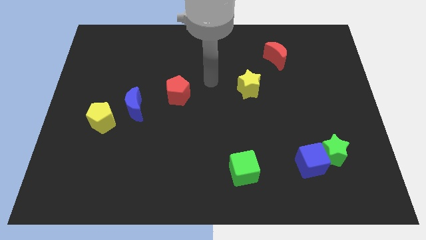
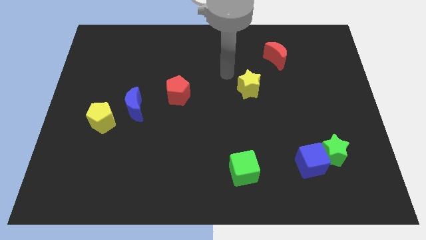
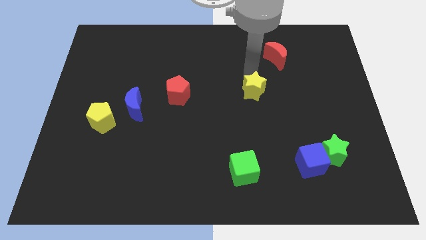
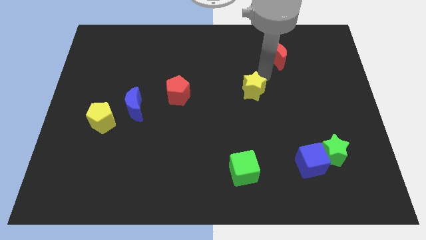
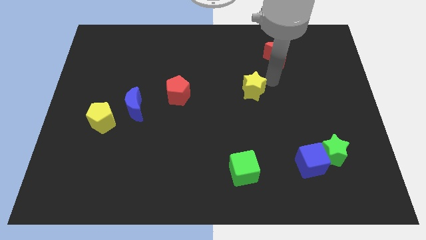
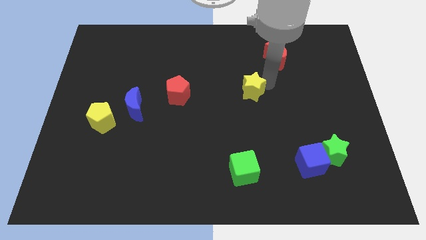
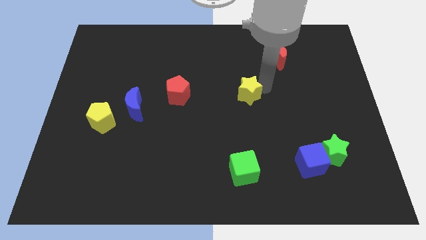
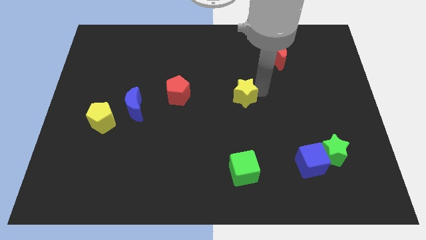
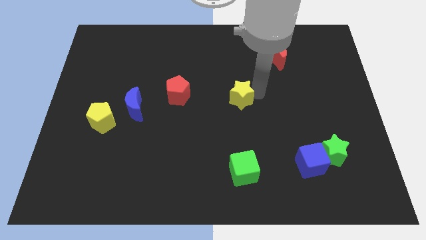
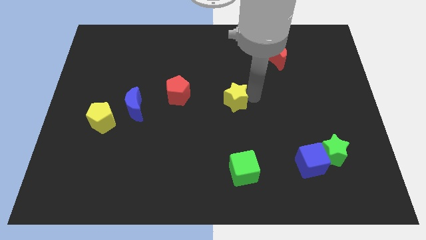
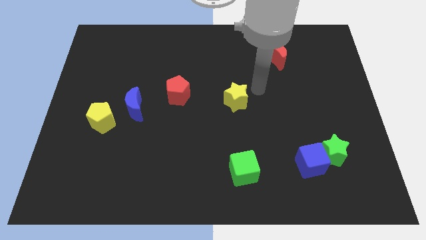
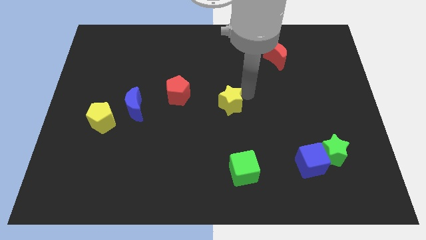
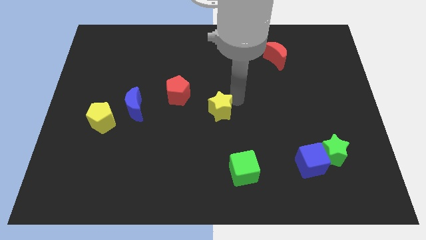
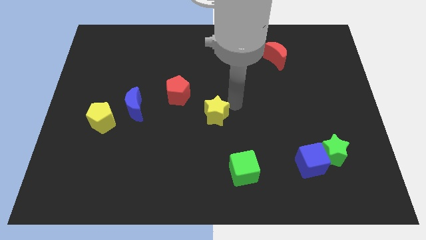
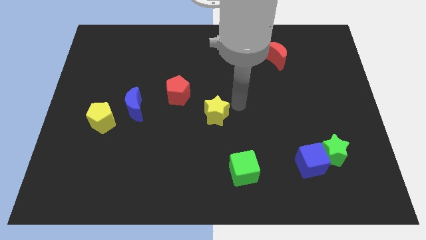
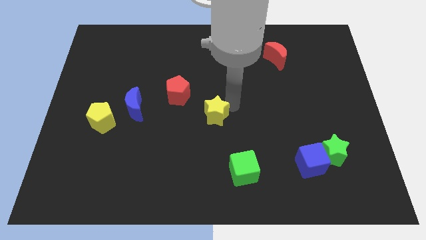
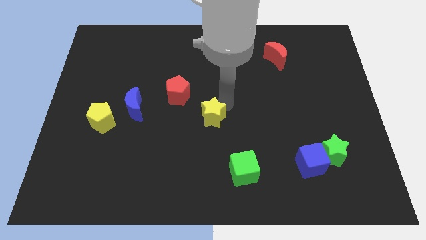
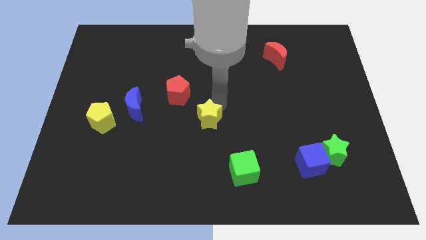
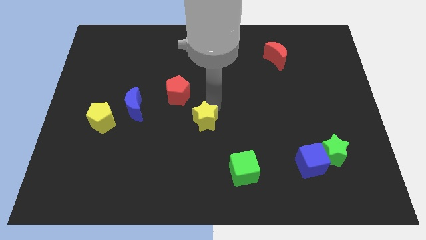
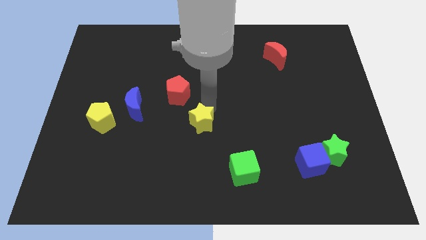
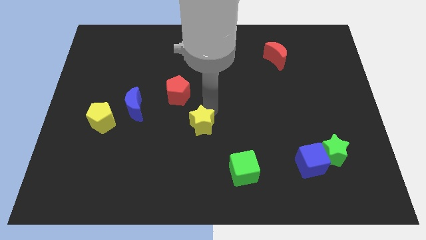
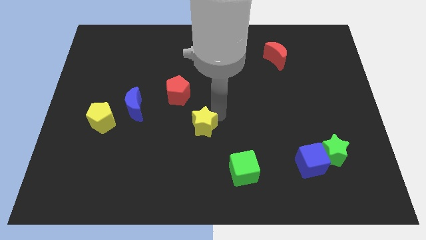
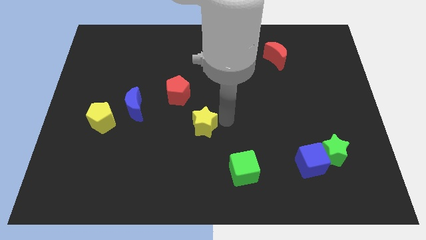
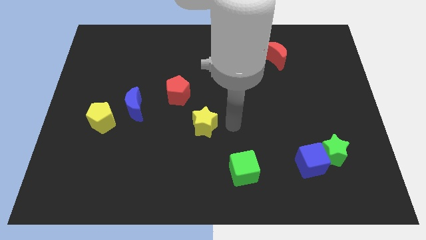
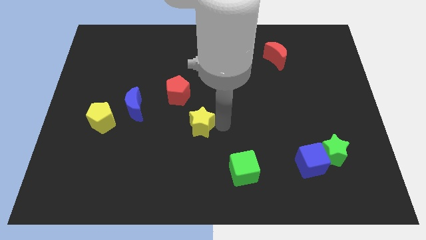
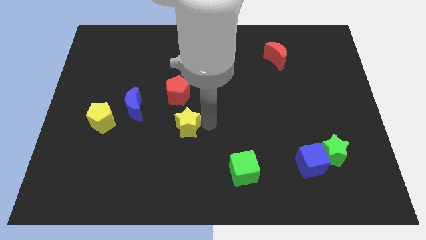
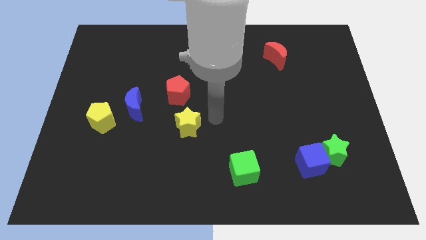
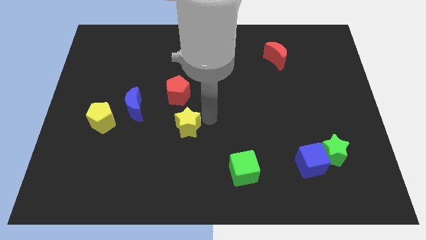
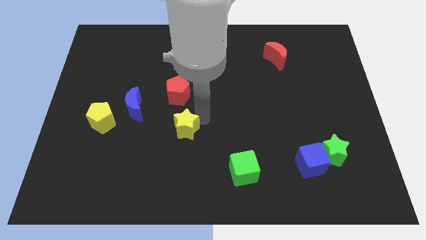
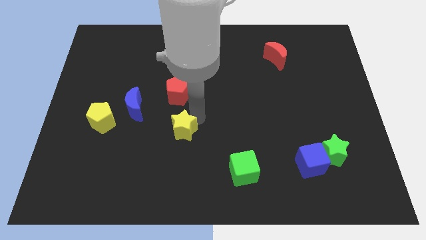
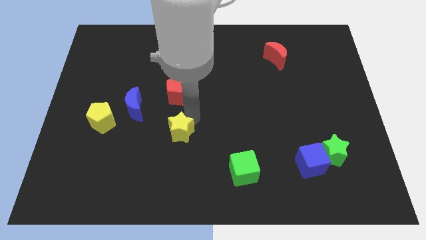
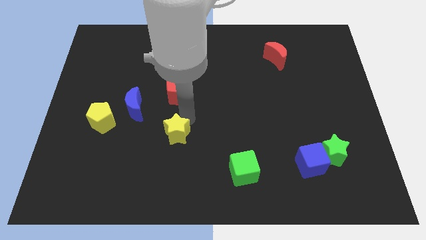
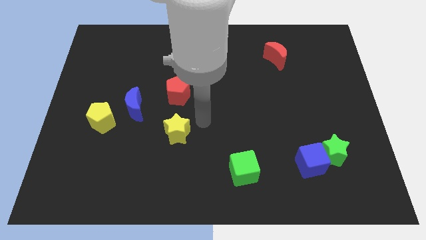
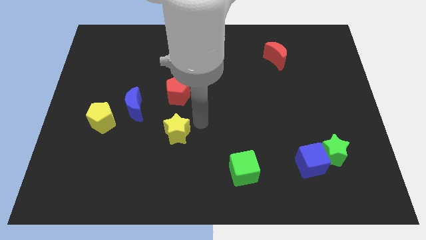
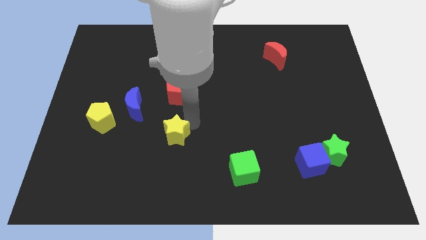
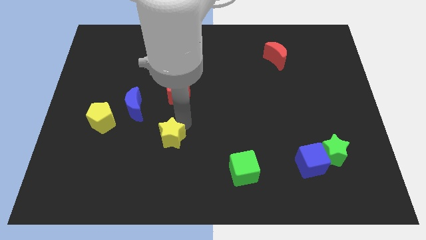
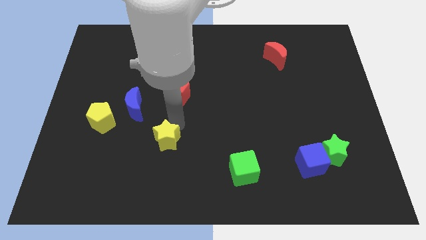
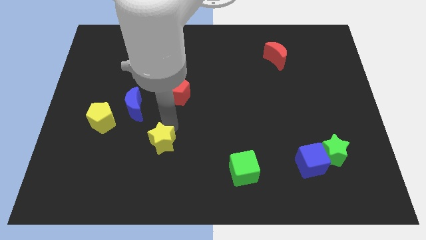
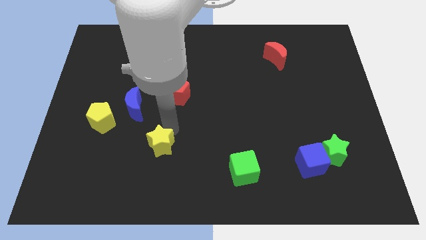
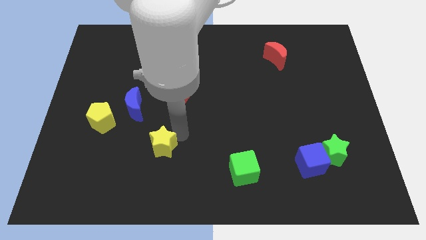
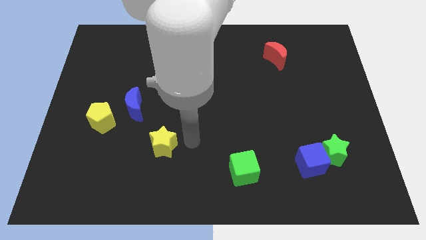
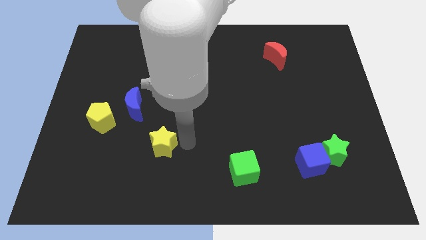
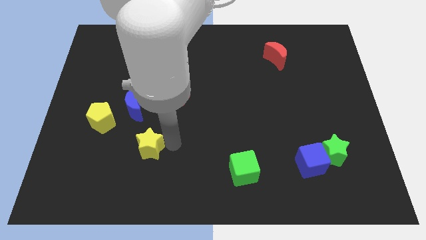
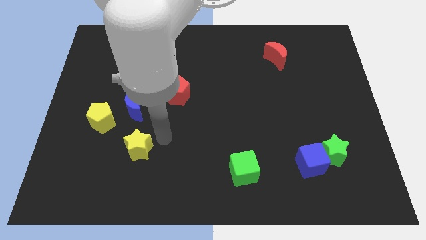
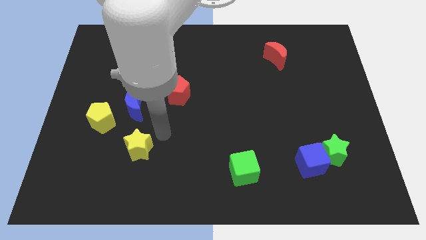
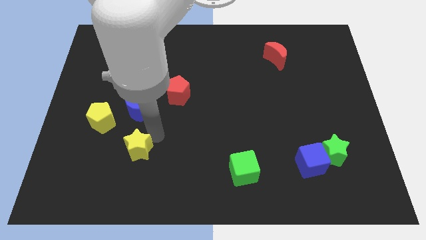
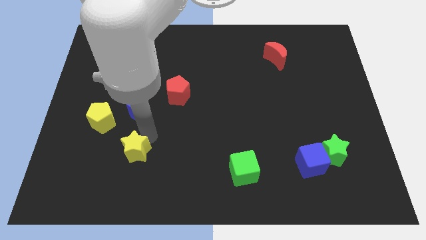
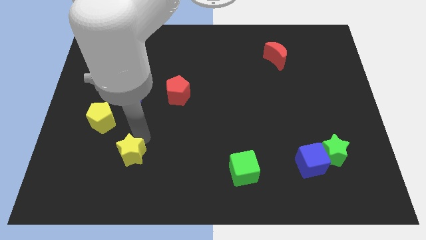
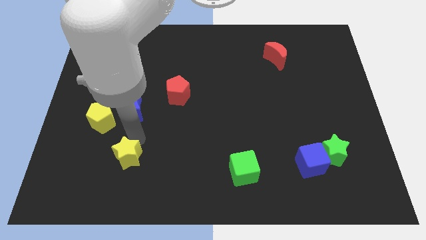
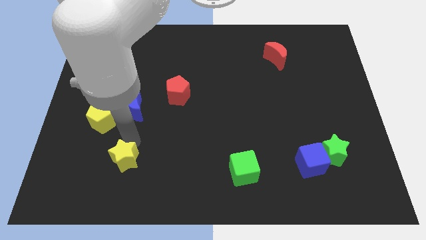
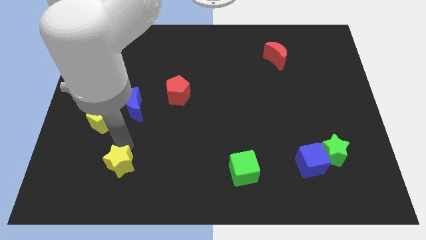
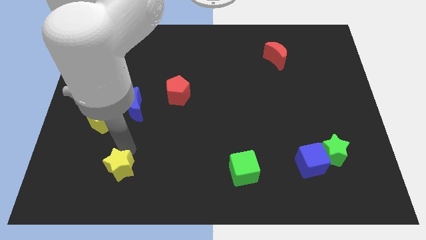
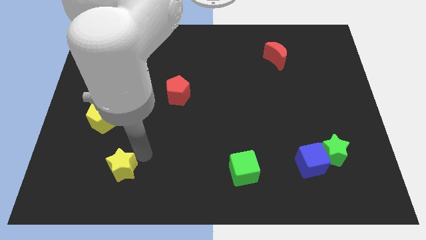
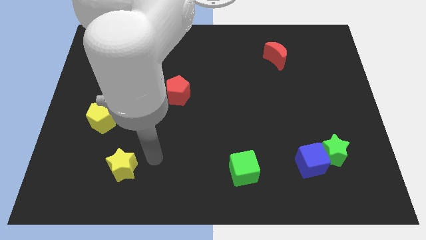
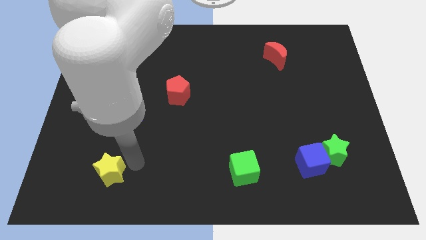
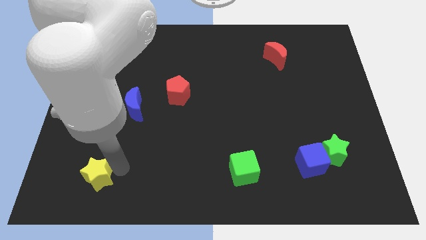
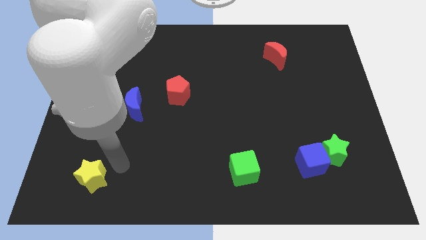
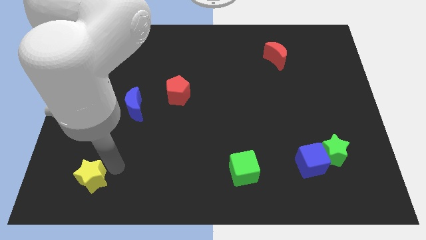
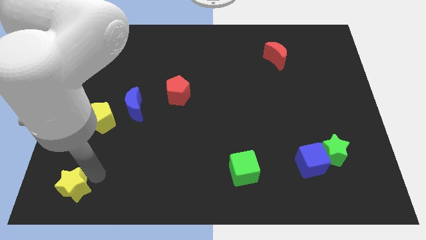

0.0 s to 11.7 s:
push the yellow star to the bottom left of the board

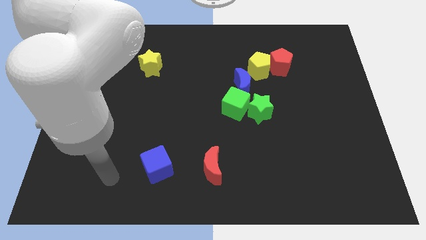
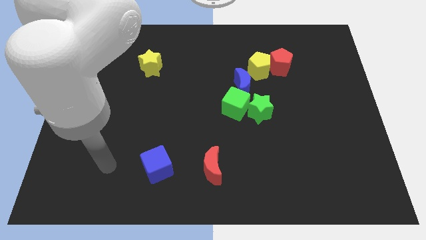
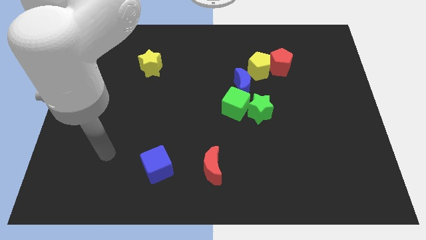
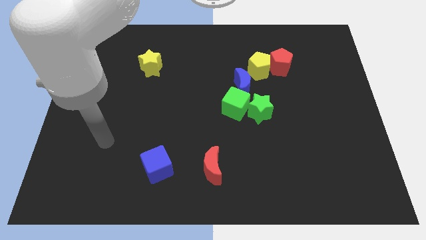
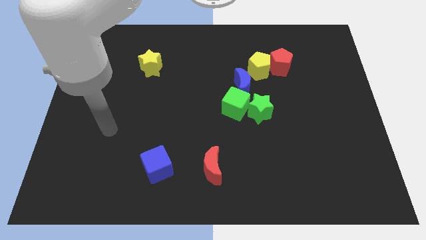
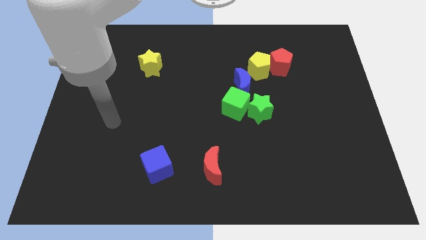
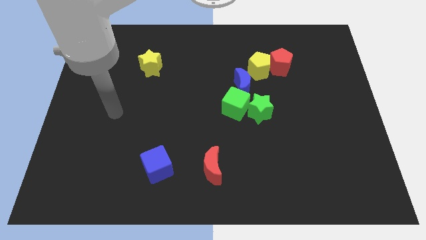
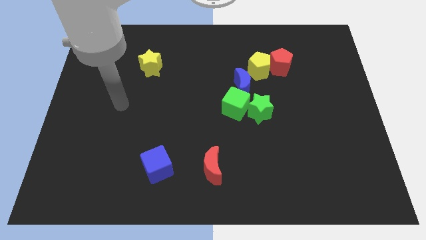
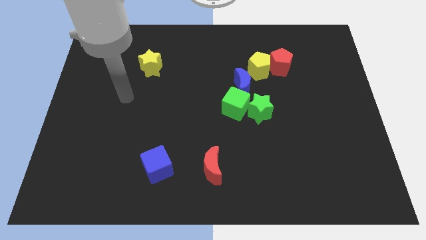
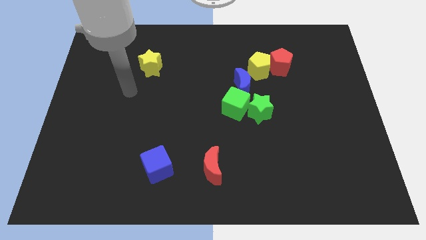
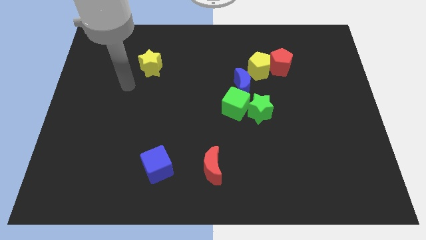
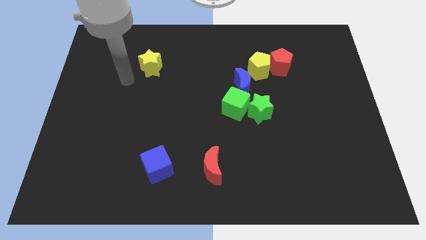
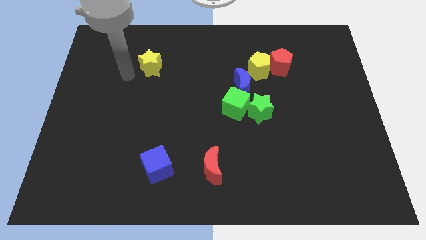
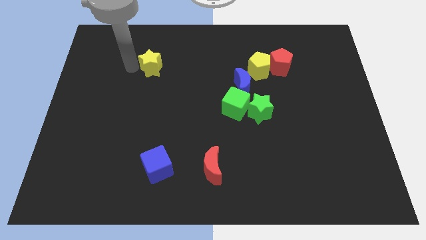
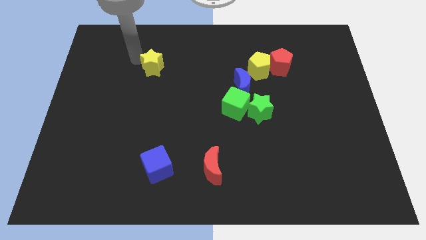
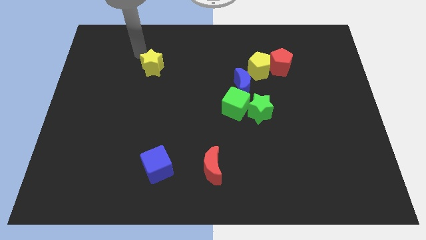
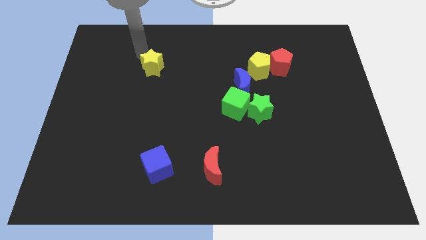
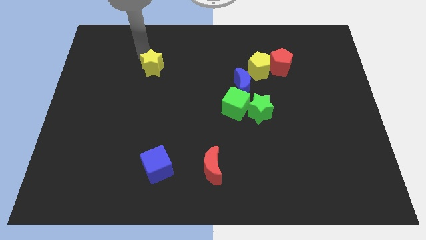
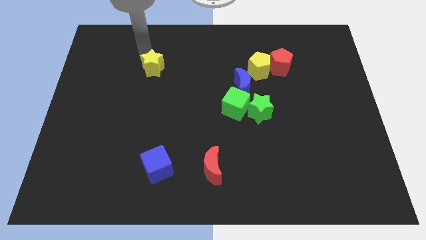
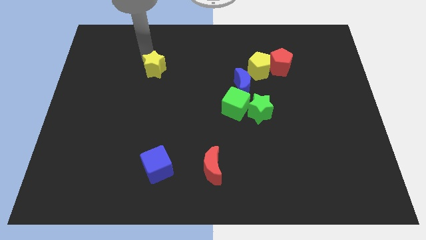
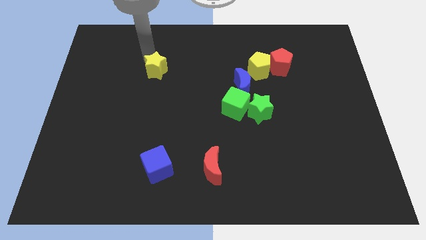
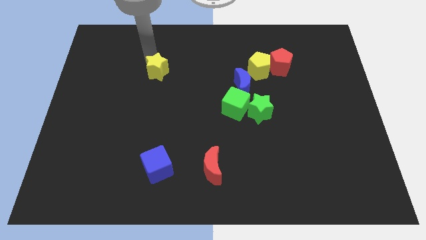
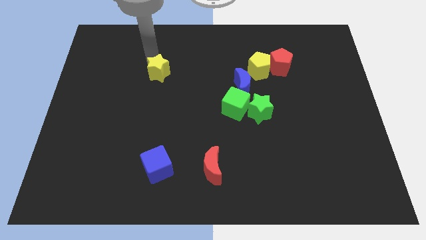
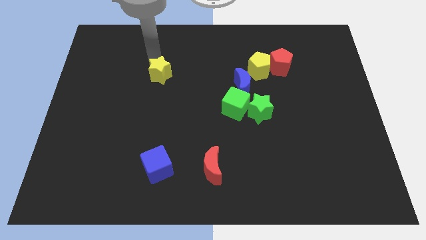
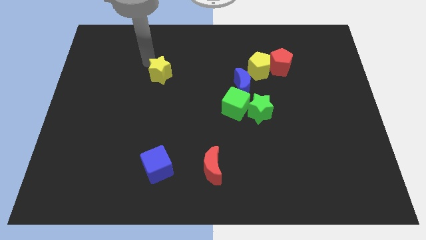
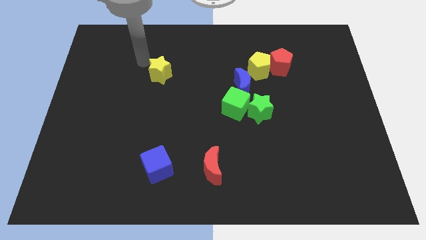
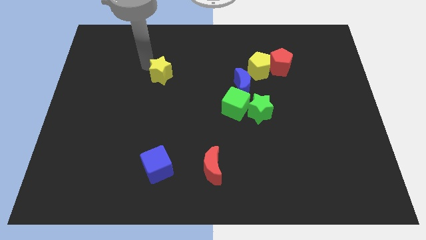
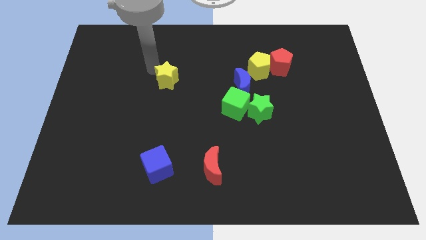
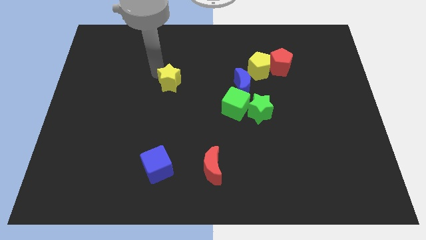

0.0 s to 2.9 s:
push the yellow star to the center

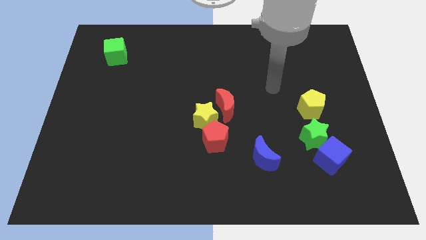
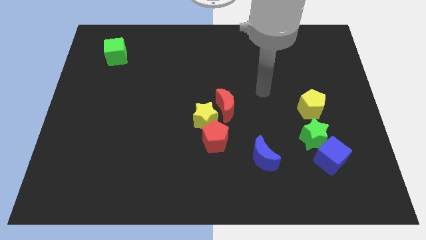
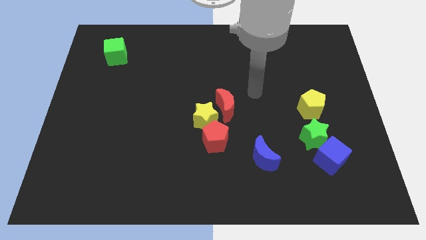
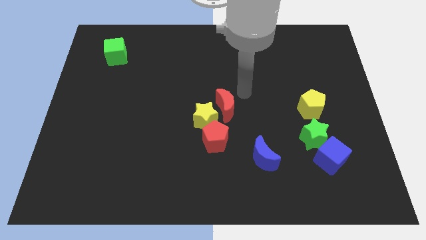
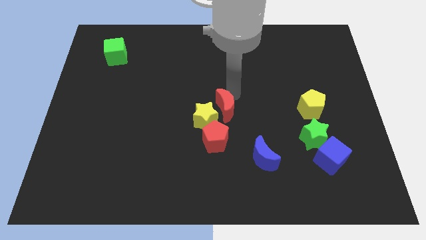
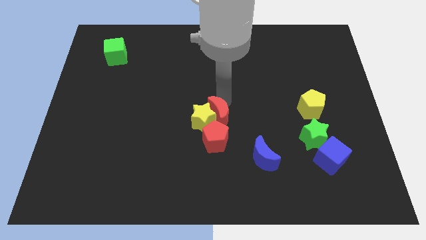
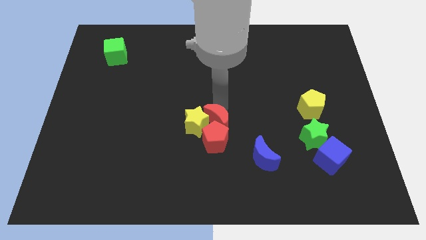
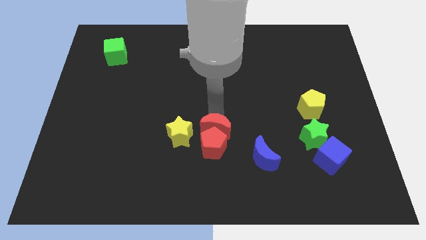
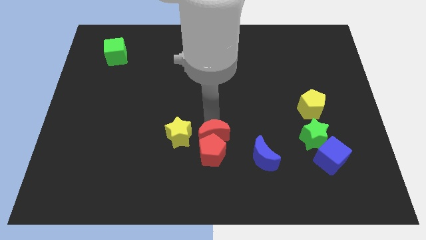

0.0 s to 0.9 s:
push the red pentagon to the bottom side
